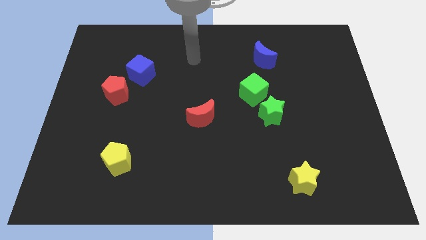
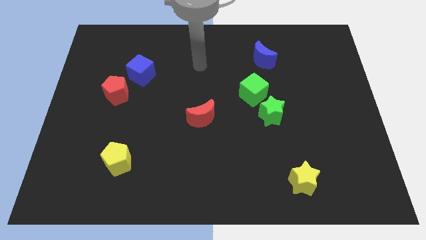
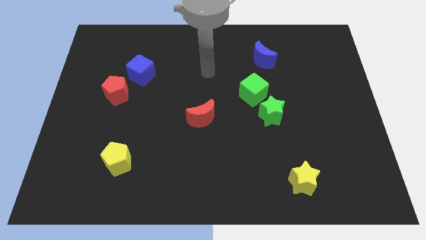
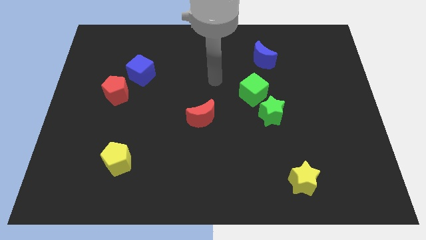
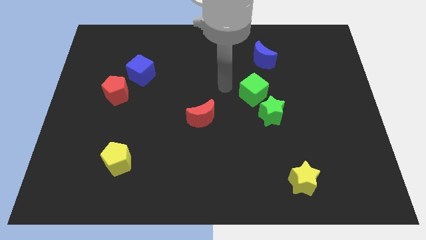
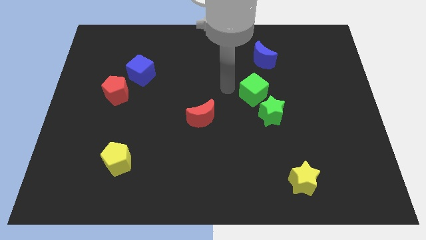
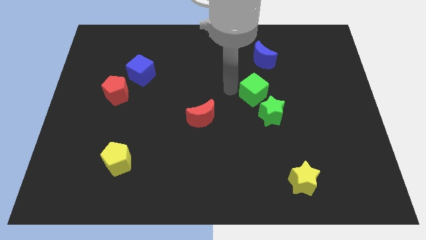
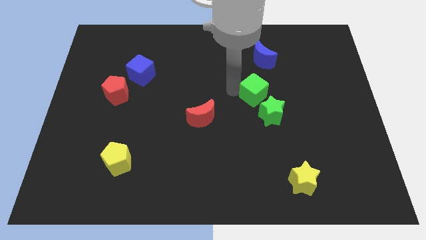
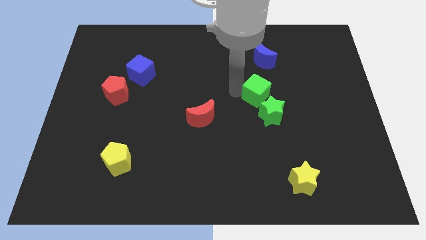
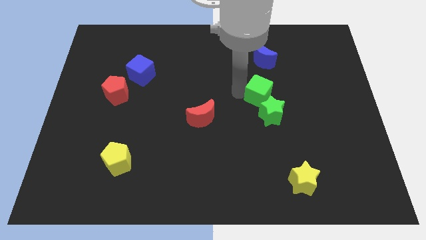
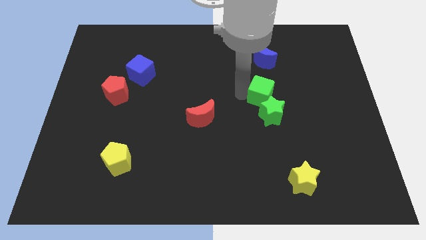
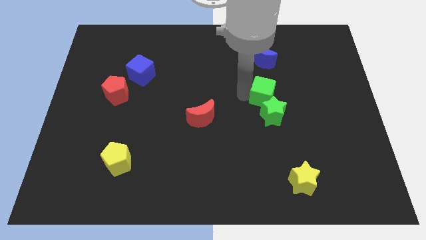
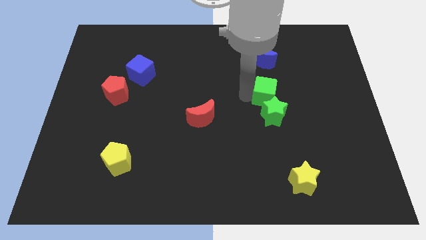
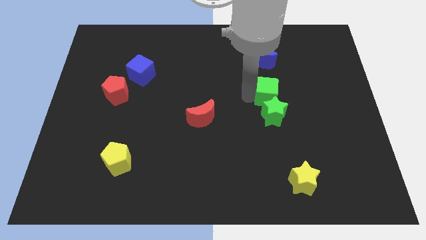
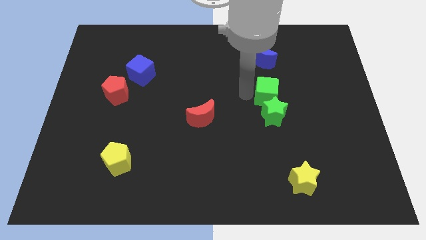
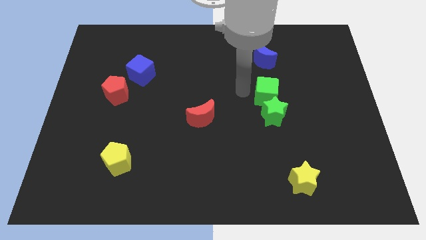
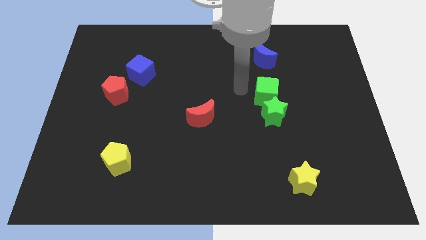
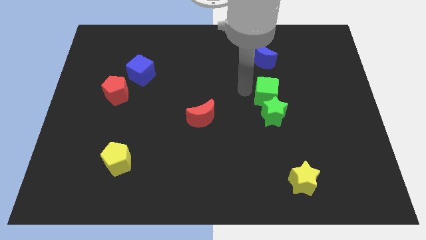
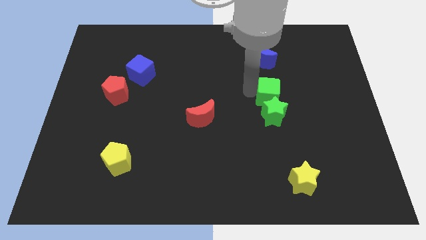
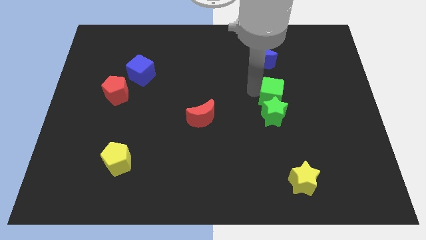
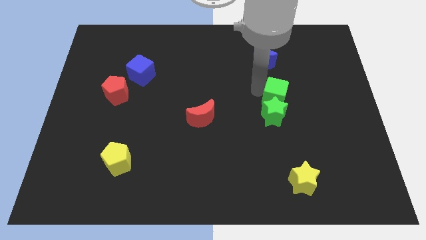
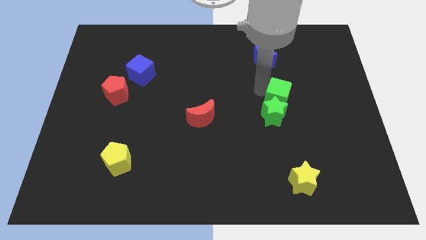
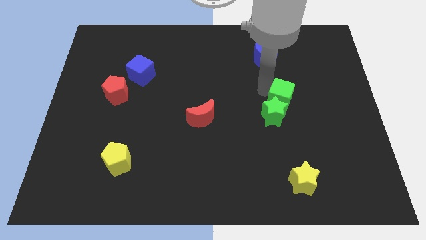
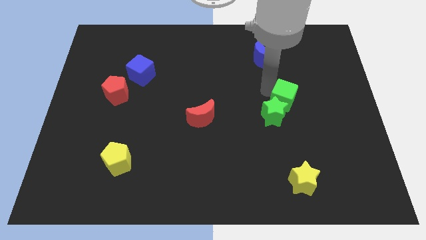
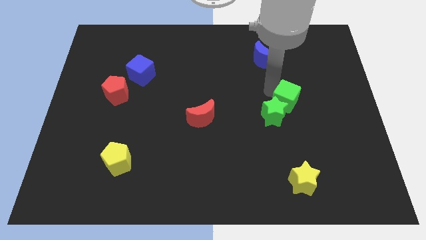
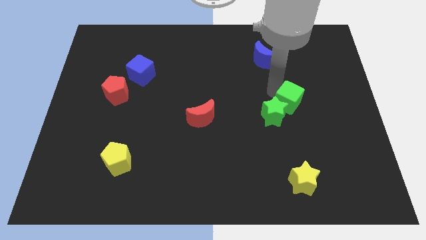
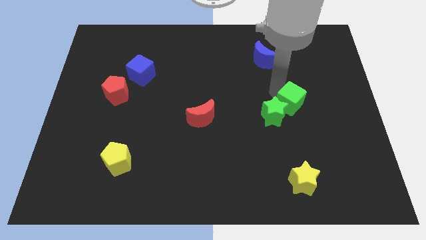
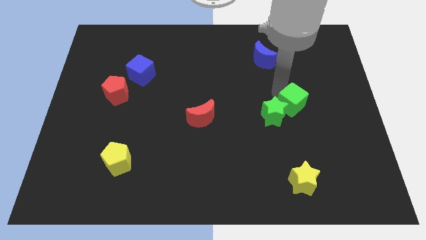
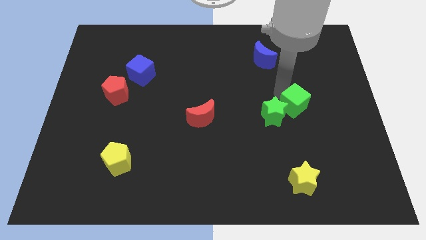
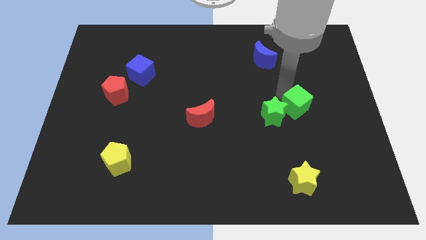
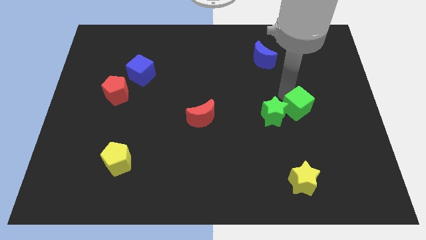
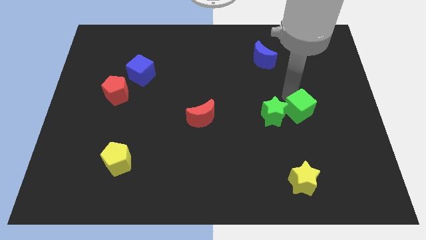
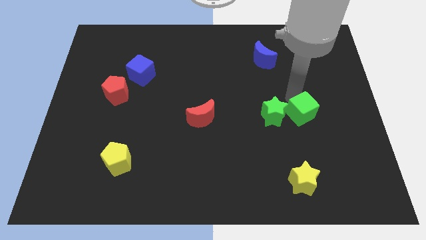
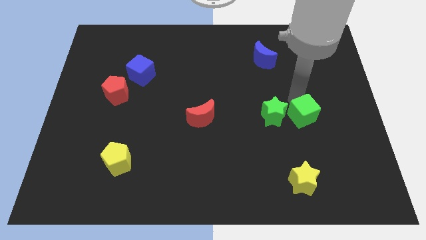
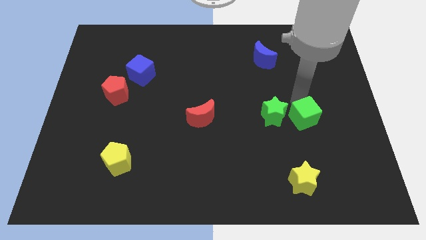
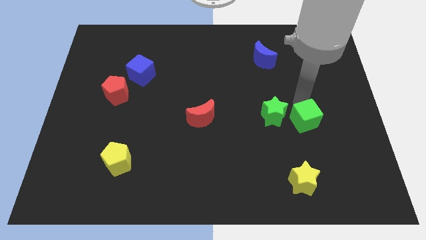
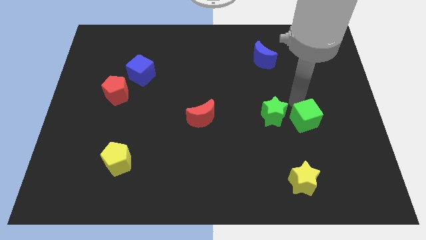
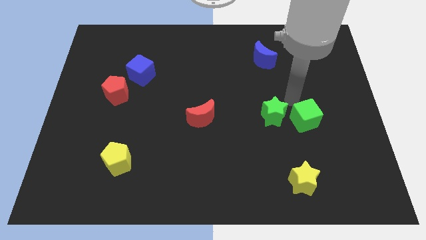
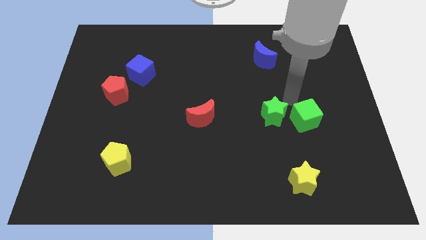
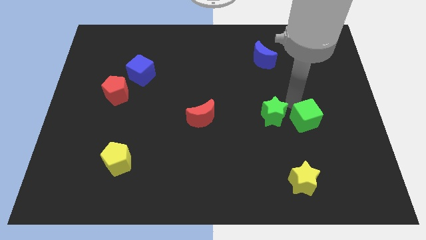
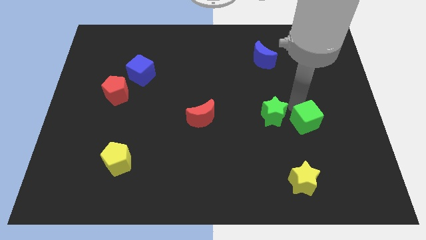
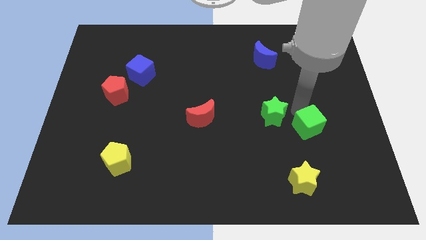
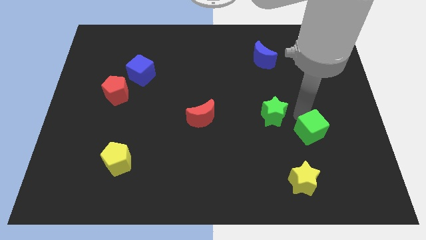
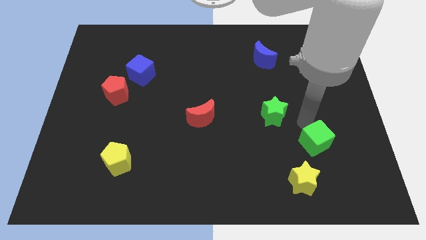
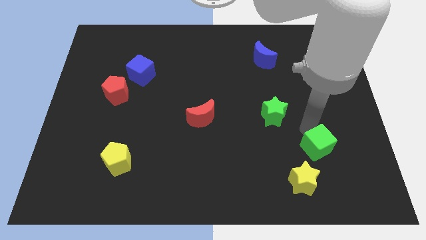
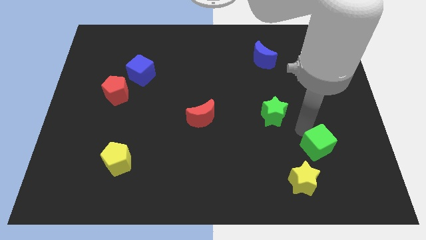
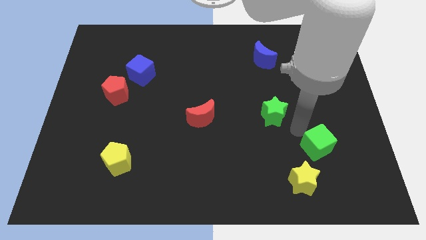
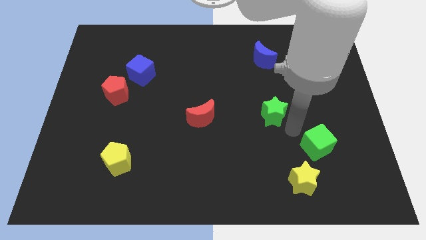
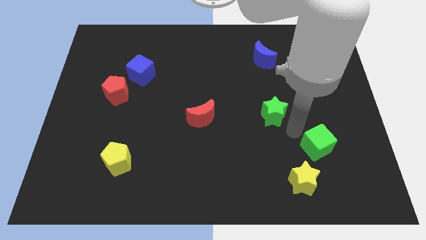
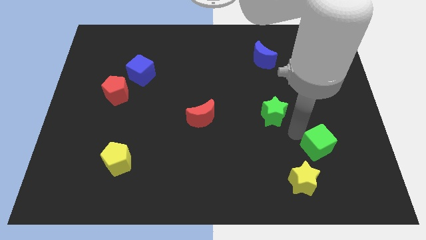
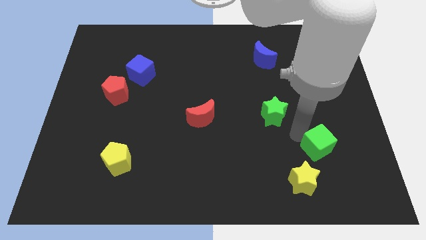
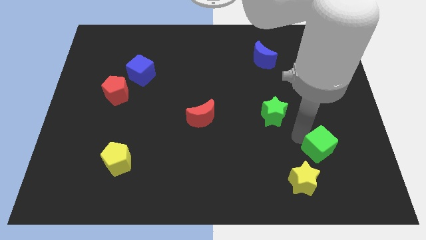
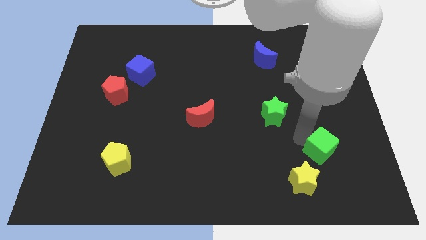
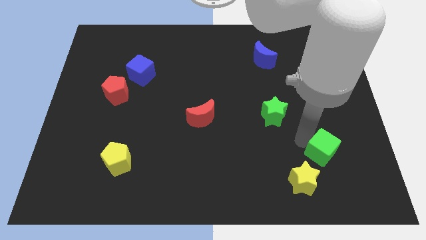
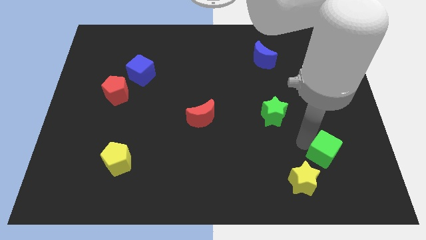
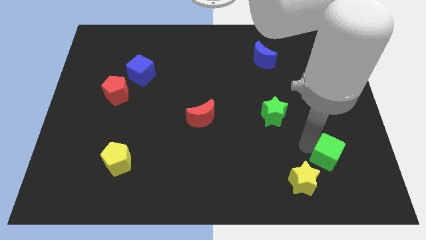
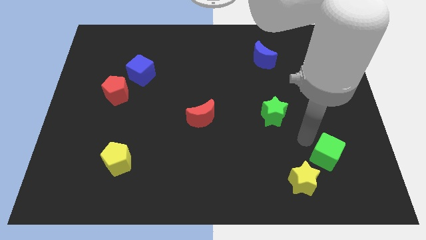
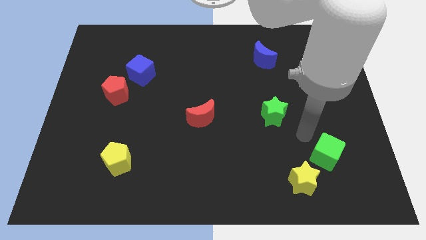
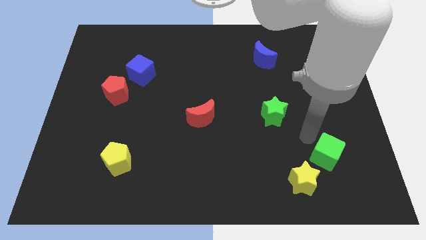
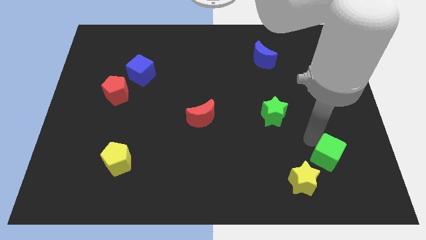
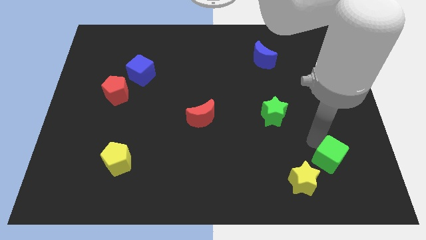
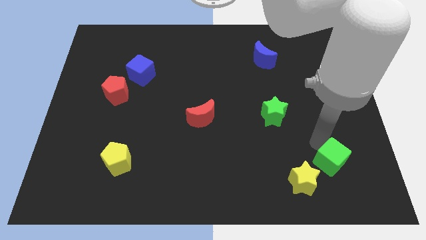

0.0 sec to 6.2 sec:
move the green cube to the right side of the yellow star

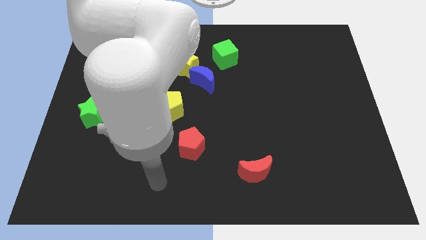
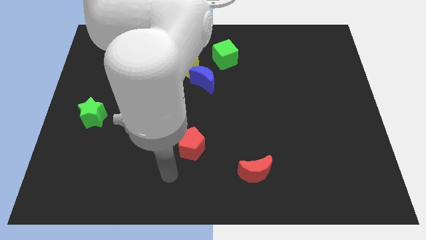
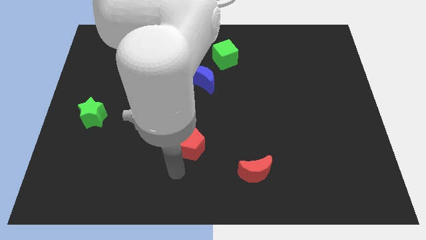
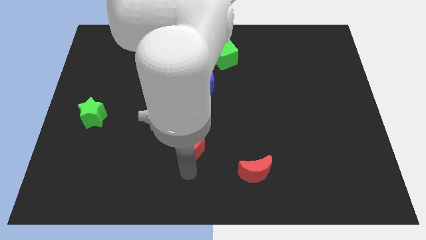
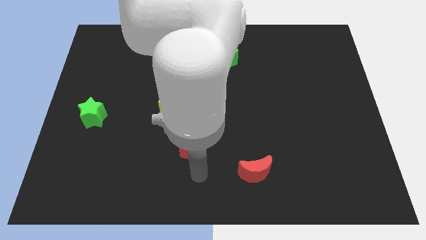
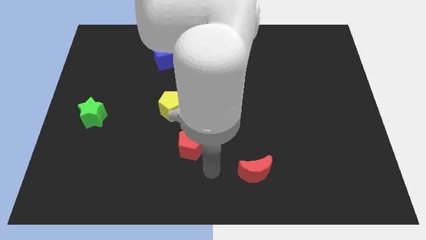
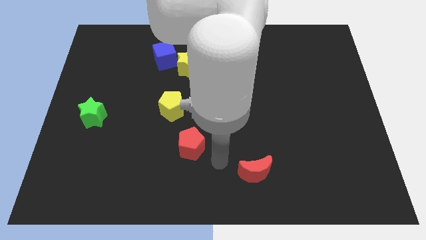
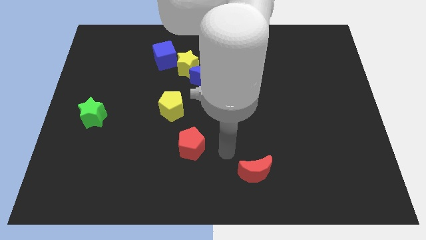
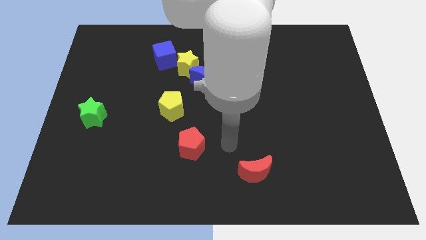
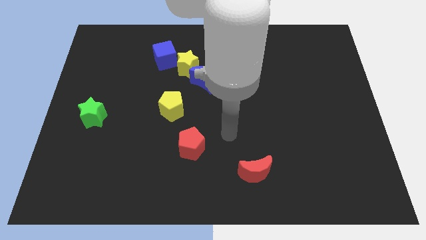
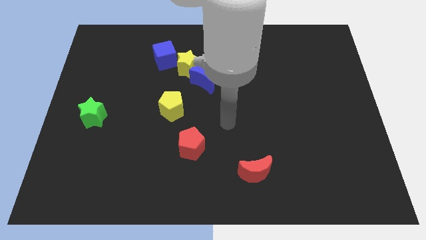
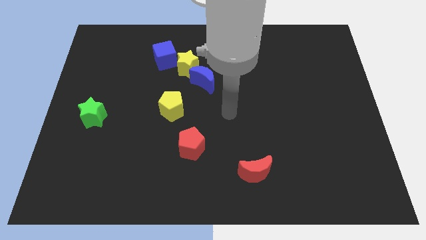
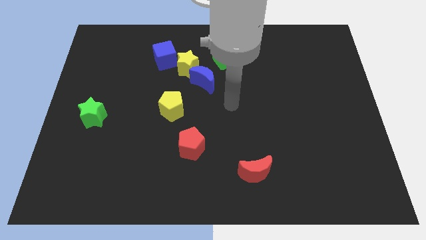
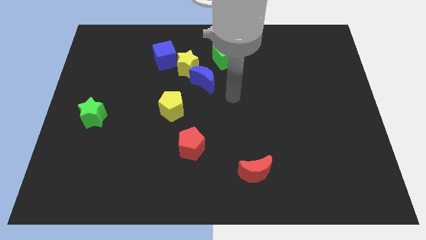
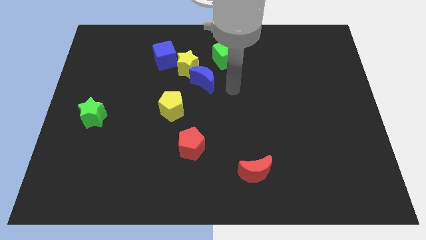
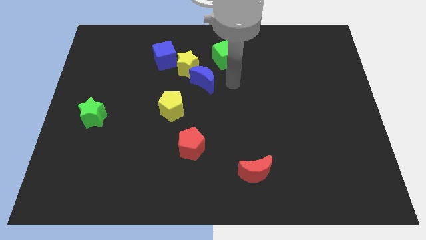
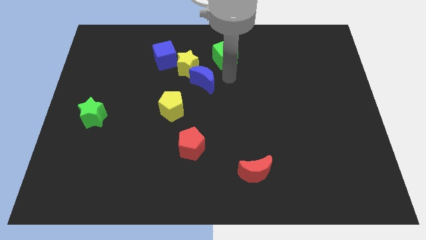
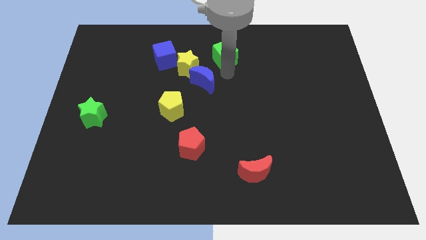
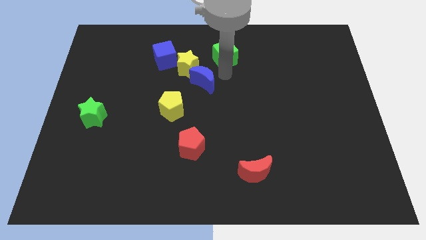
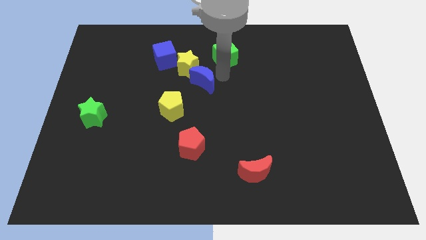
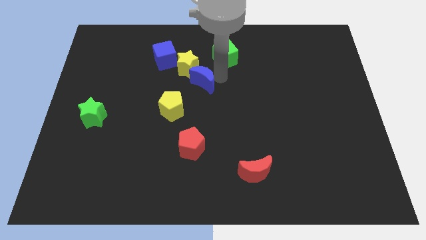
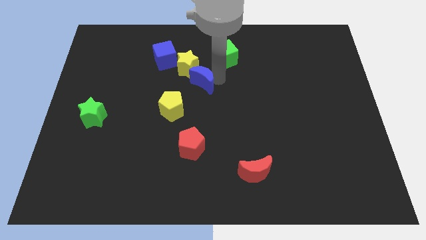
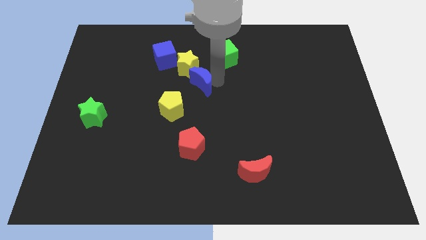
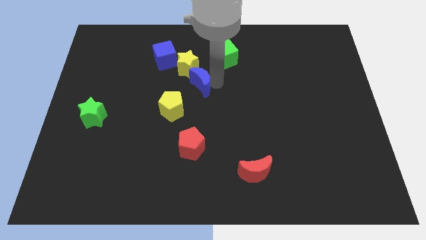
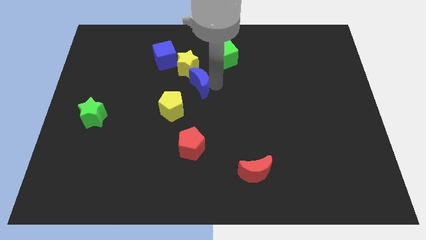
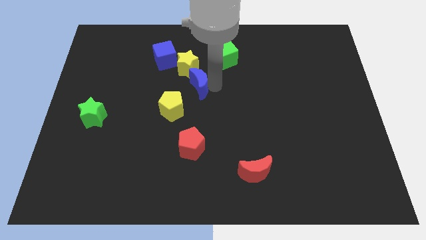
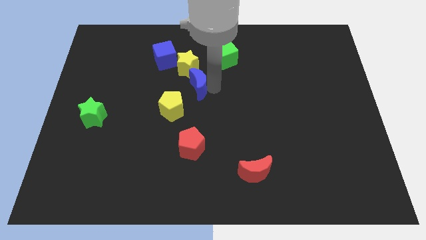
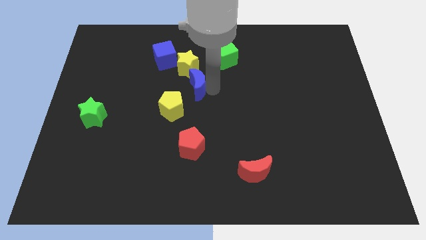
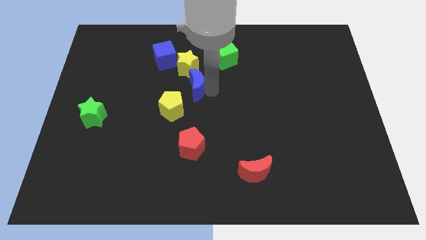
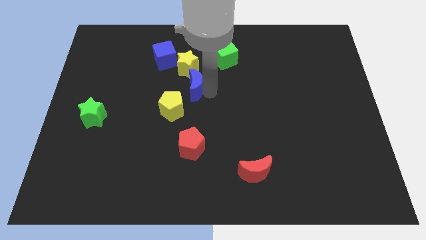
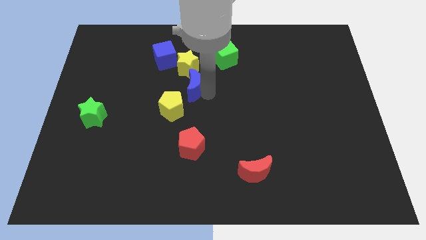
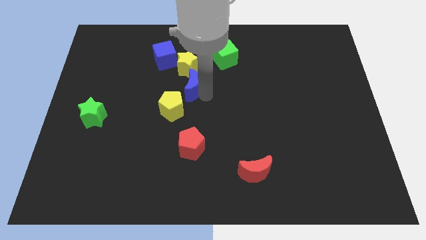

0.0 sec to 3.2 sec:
slide the blue moon above the yellow pentagon
